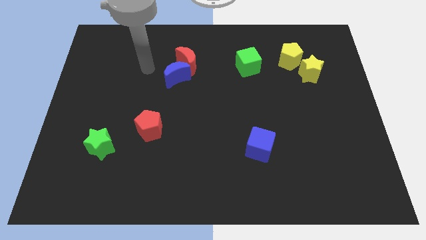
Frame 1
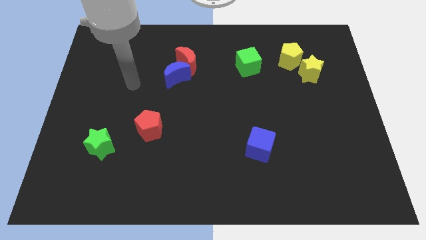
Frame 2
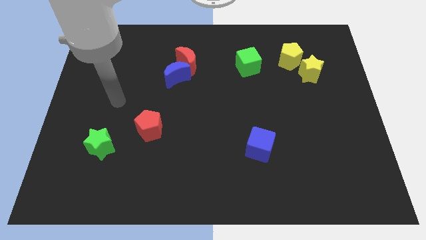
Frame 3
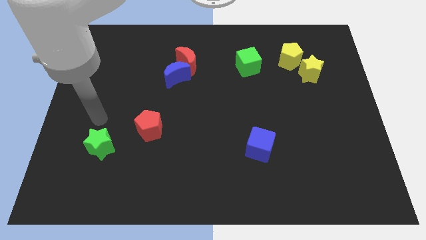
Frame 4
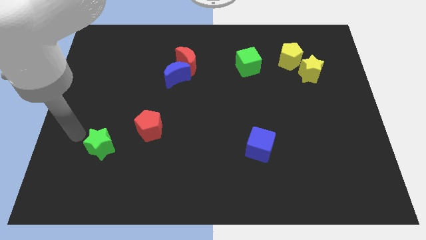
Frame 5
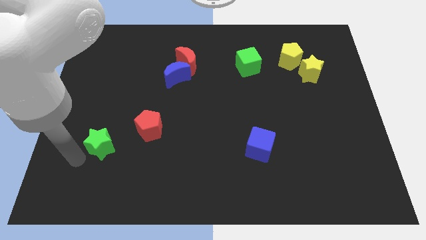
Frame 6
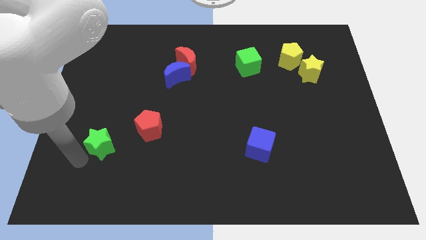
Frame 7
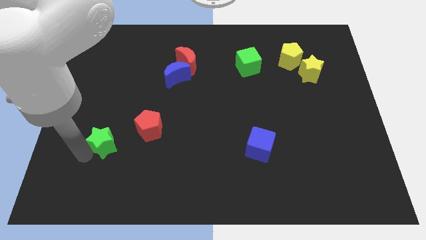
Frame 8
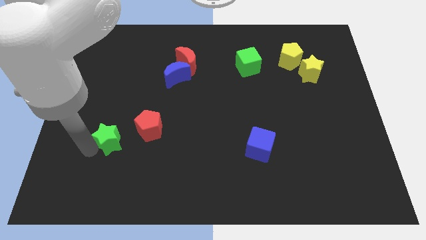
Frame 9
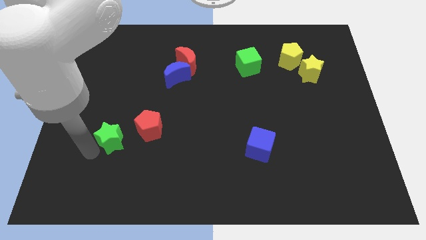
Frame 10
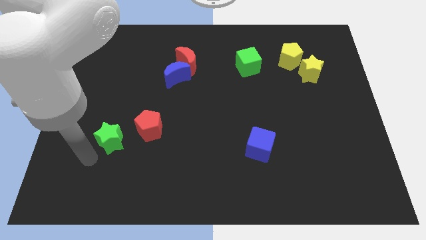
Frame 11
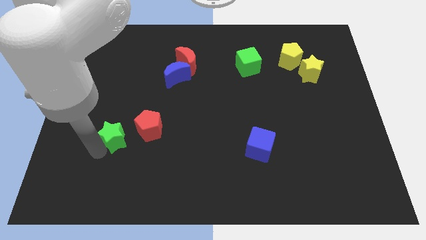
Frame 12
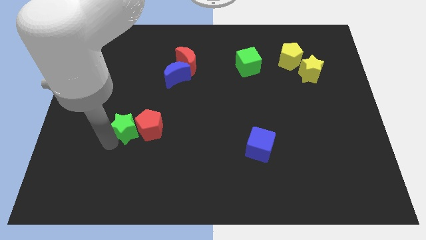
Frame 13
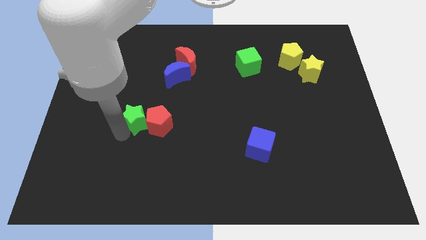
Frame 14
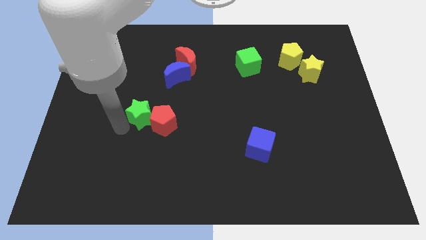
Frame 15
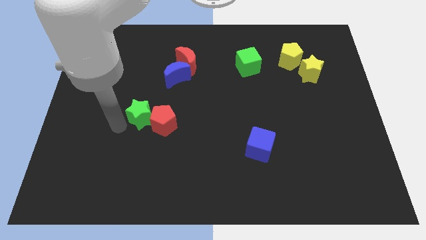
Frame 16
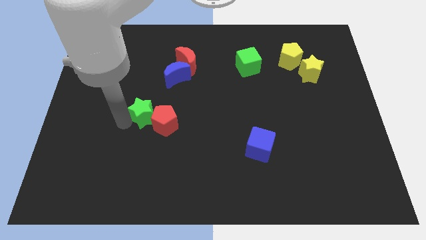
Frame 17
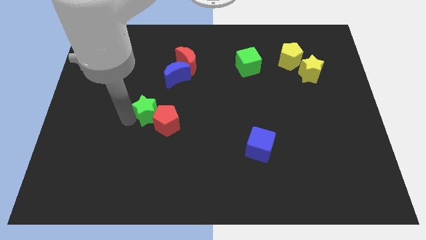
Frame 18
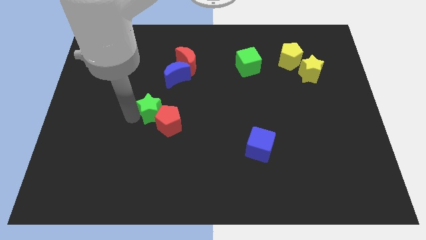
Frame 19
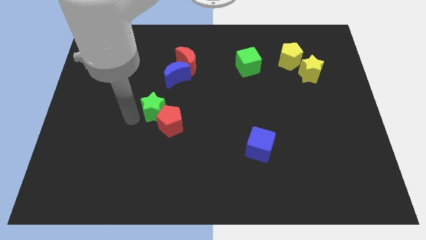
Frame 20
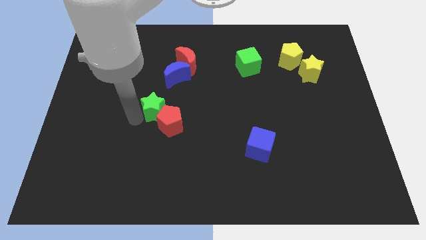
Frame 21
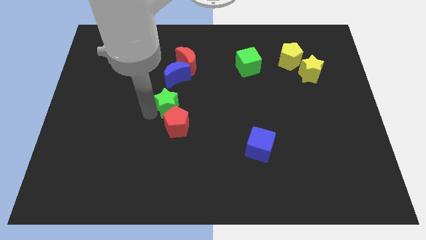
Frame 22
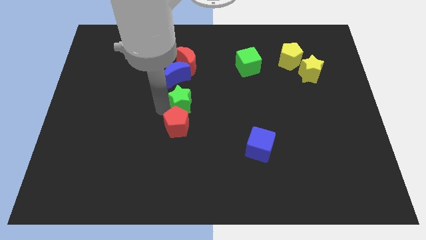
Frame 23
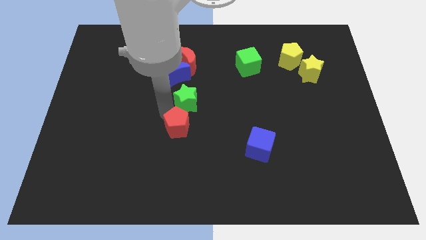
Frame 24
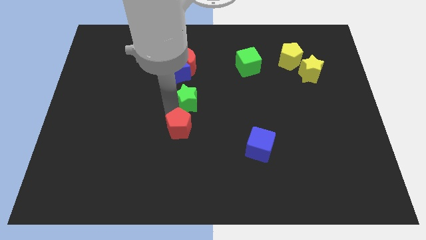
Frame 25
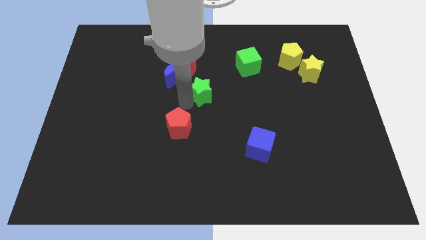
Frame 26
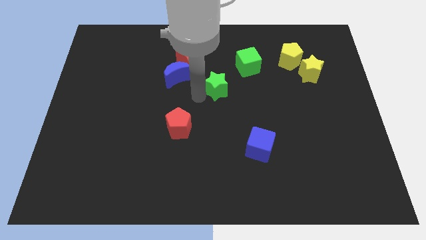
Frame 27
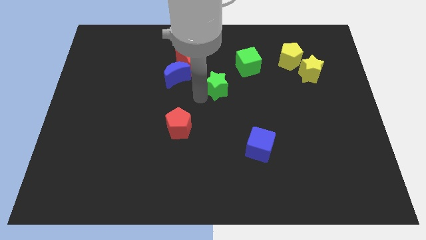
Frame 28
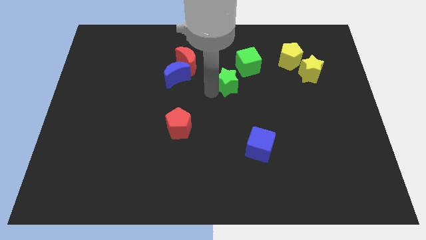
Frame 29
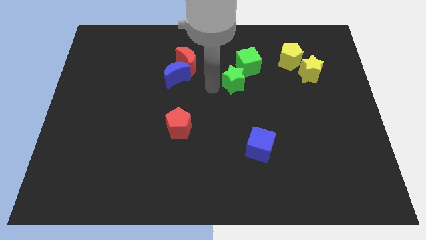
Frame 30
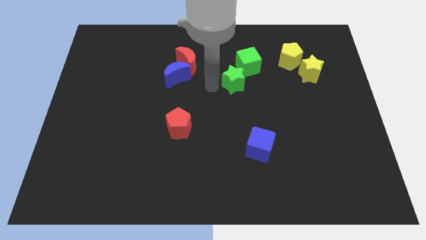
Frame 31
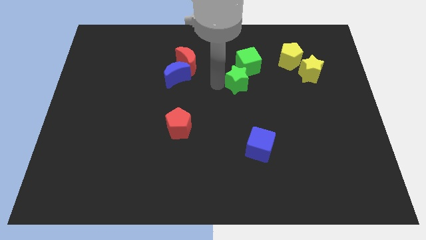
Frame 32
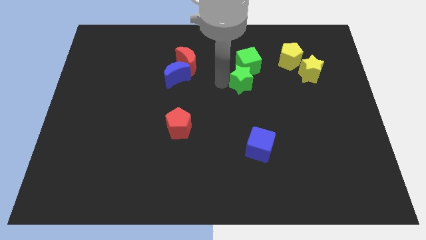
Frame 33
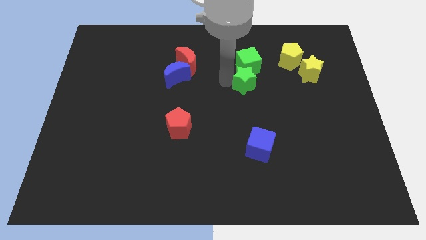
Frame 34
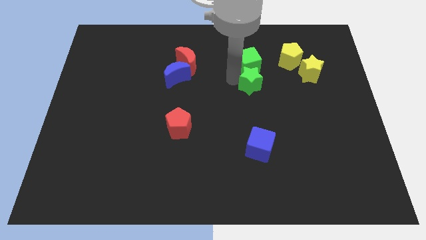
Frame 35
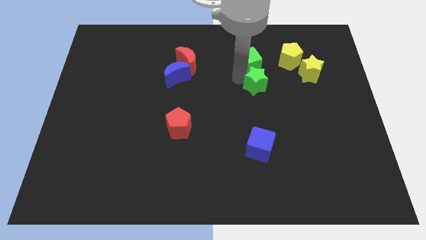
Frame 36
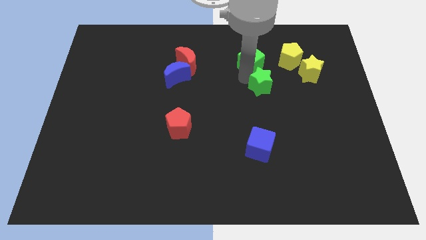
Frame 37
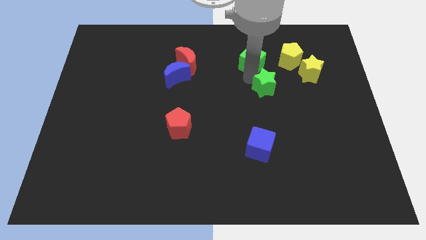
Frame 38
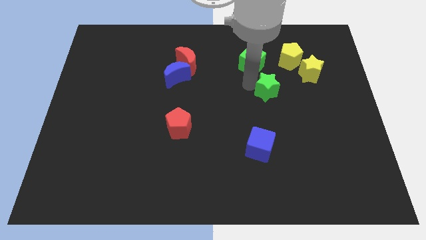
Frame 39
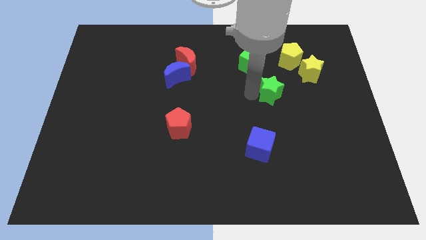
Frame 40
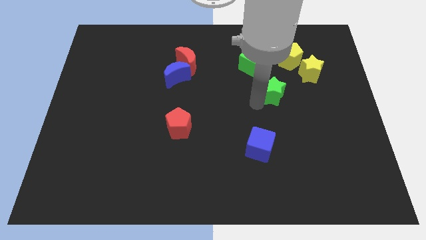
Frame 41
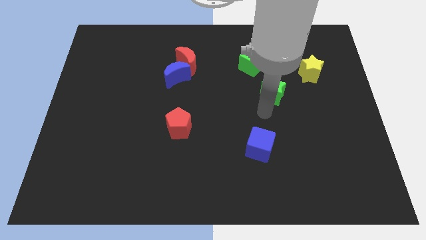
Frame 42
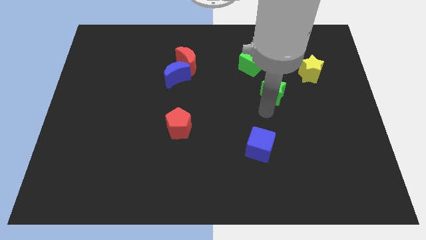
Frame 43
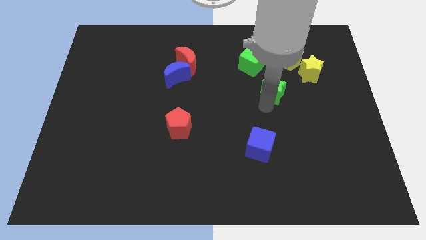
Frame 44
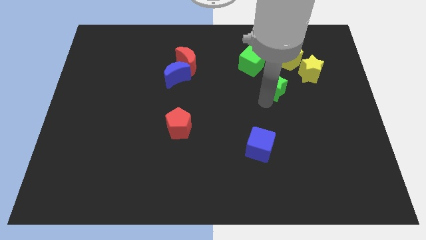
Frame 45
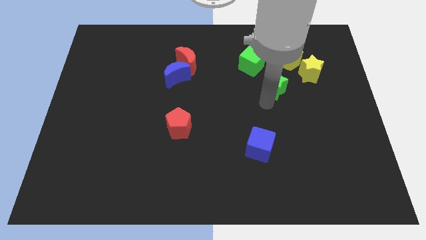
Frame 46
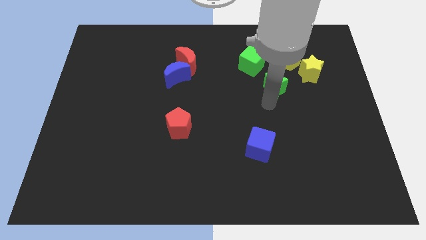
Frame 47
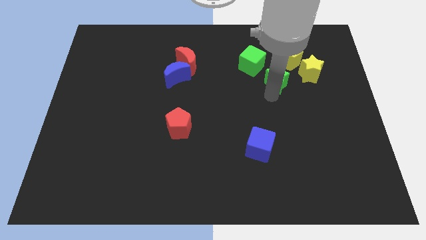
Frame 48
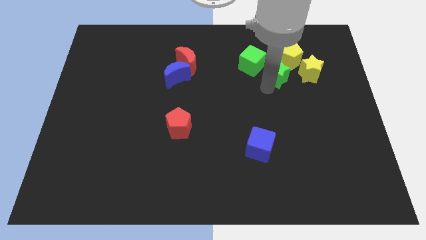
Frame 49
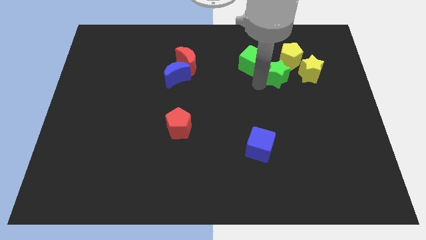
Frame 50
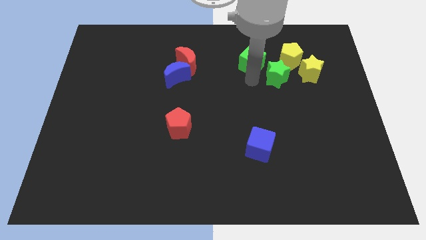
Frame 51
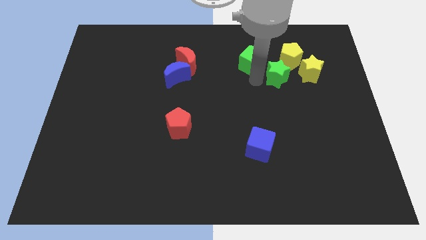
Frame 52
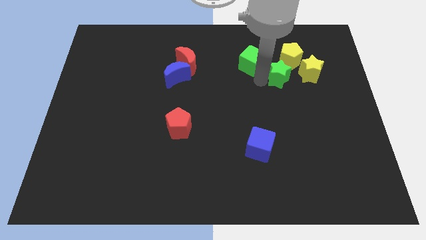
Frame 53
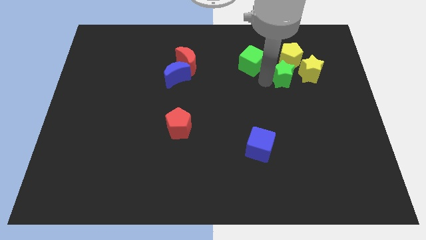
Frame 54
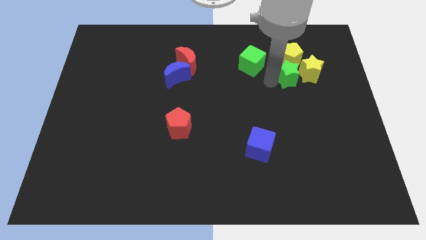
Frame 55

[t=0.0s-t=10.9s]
slide the green star towards the yellow star

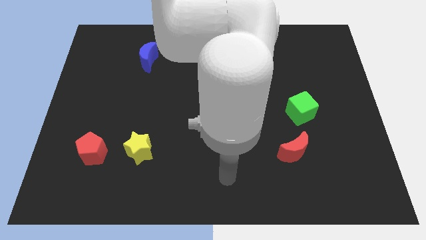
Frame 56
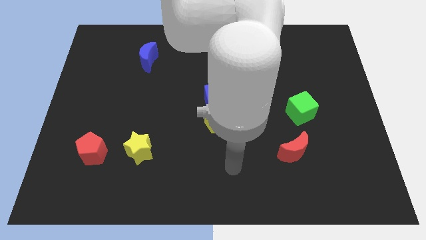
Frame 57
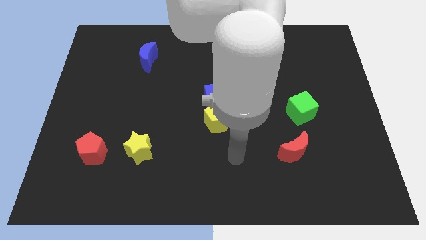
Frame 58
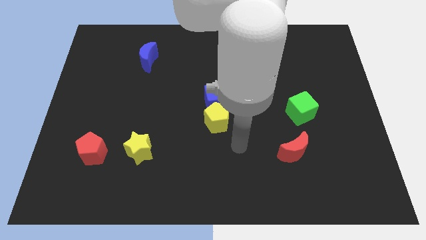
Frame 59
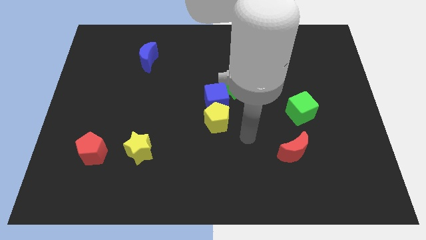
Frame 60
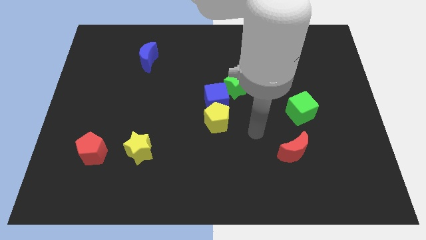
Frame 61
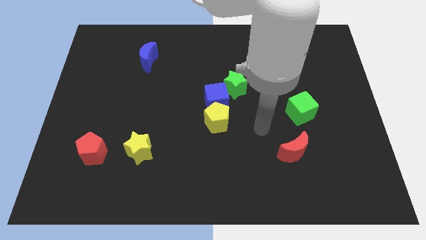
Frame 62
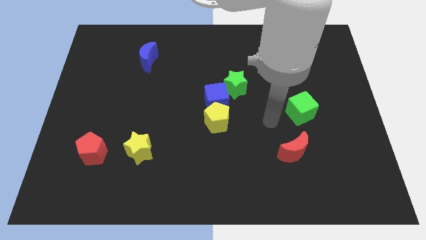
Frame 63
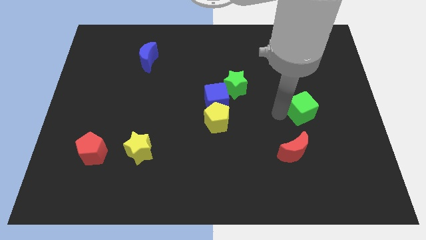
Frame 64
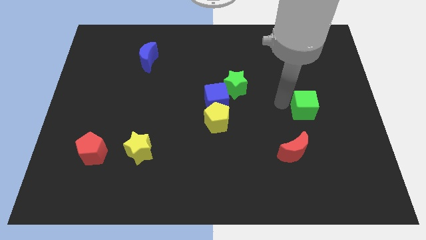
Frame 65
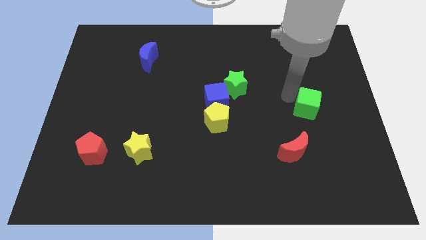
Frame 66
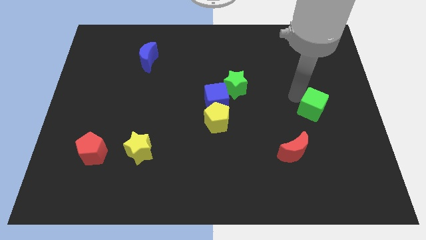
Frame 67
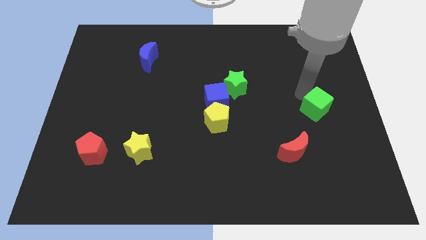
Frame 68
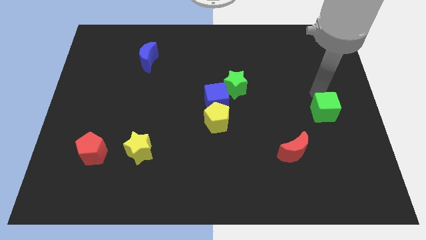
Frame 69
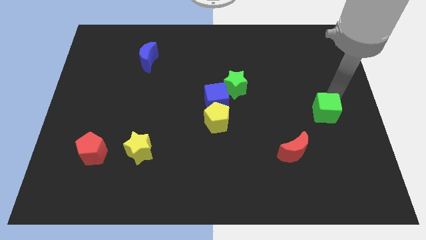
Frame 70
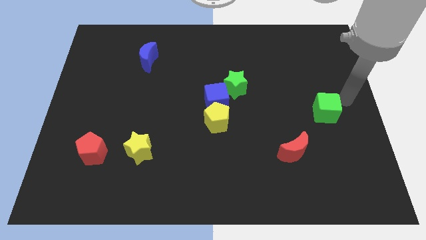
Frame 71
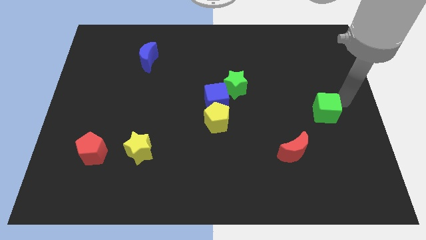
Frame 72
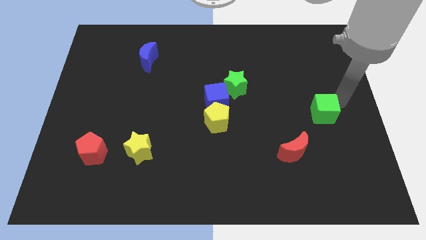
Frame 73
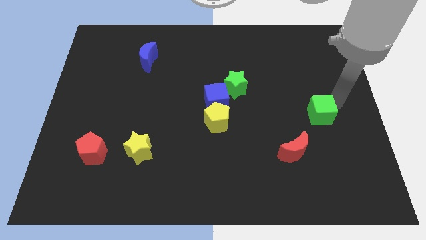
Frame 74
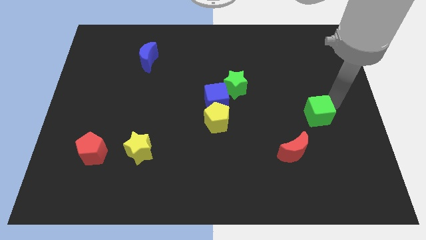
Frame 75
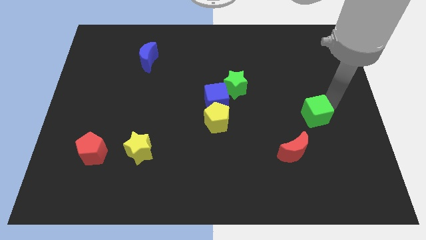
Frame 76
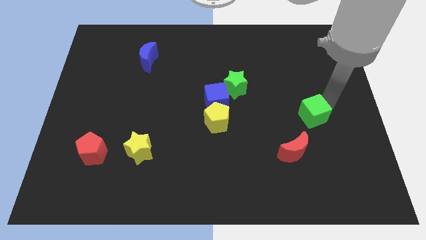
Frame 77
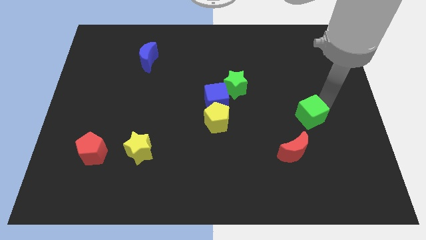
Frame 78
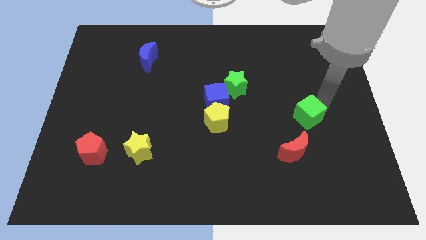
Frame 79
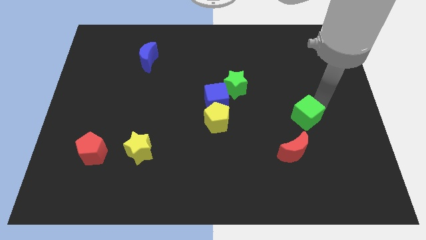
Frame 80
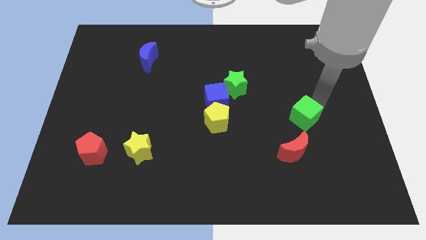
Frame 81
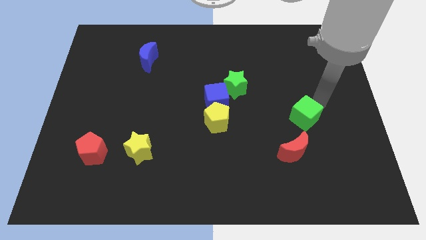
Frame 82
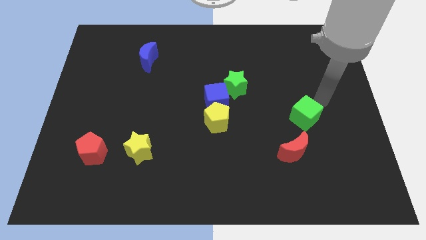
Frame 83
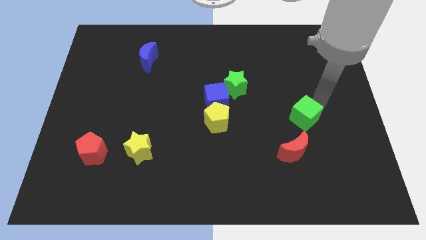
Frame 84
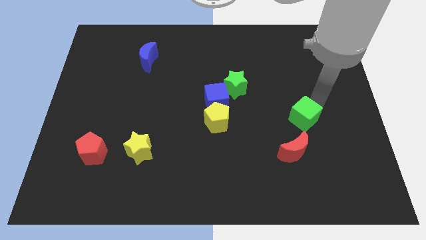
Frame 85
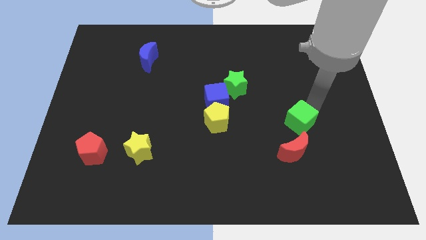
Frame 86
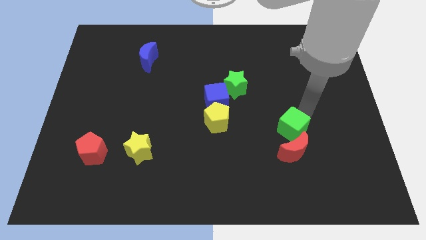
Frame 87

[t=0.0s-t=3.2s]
move the green cube close to the red moon
